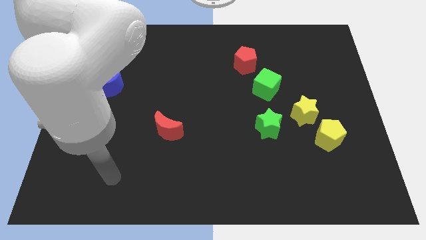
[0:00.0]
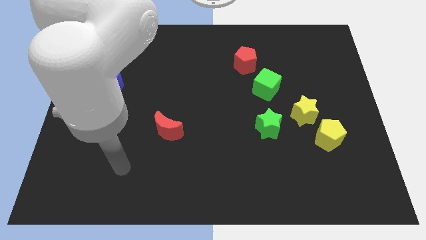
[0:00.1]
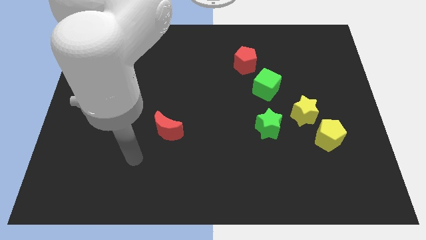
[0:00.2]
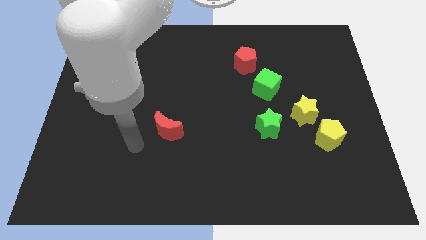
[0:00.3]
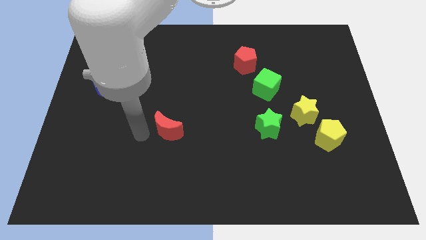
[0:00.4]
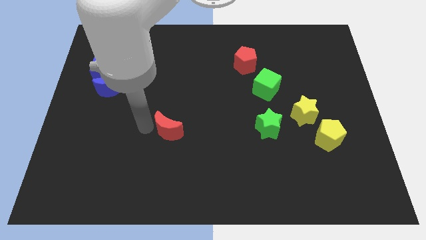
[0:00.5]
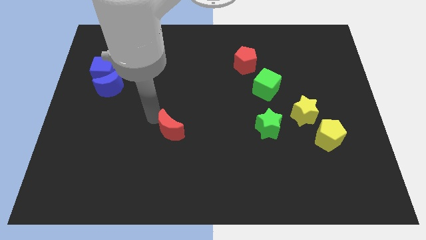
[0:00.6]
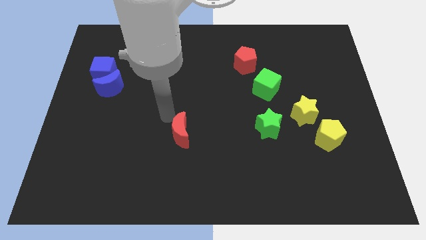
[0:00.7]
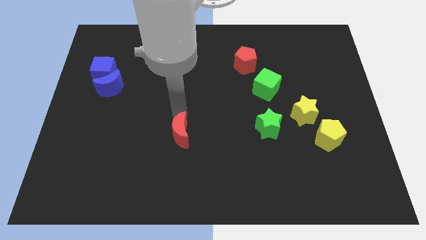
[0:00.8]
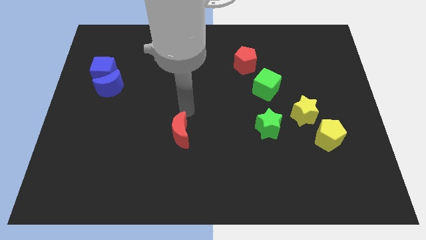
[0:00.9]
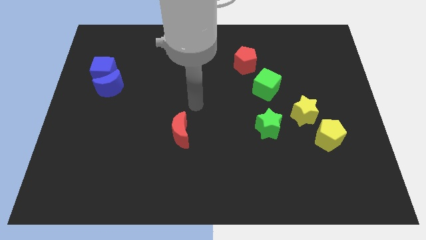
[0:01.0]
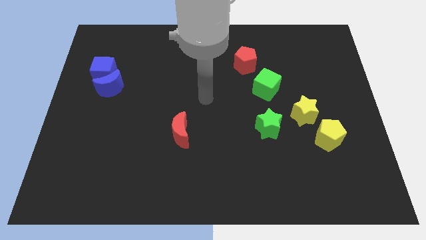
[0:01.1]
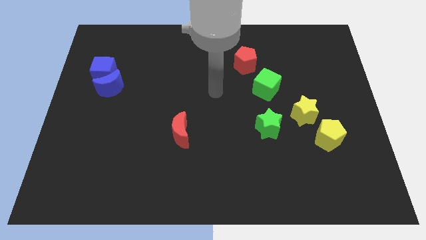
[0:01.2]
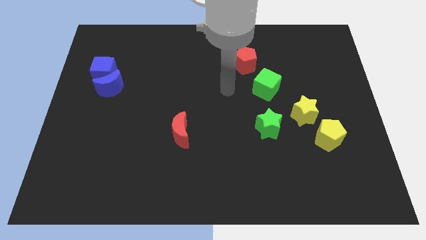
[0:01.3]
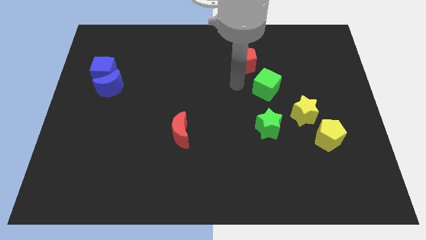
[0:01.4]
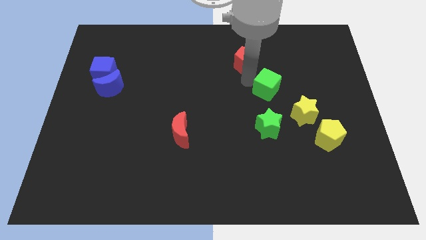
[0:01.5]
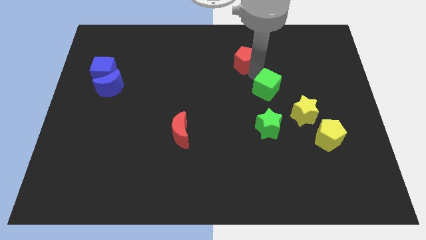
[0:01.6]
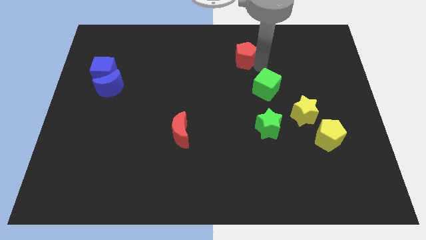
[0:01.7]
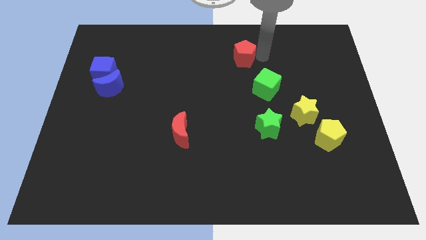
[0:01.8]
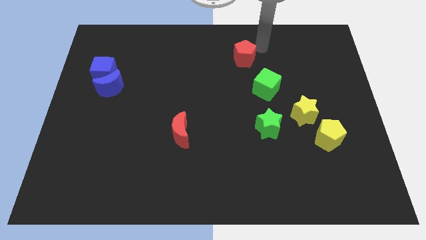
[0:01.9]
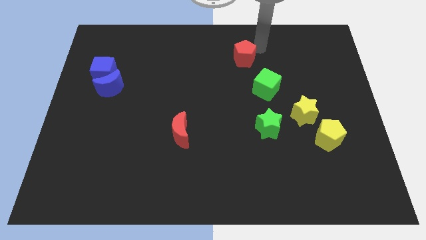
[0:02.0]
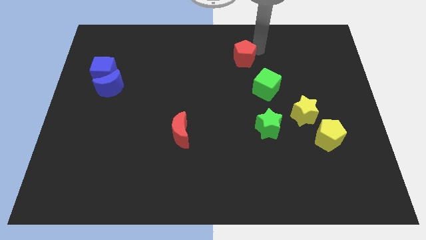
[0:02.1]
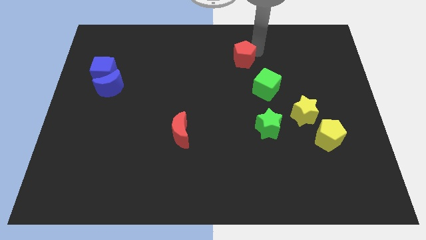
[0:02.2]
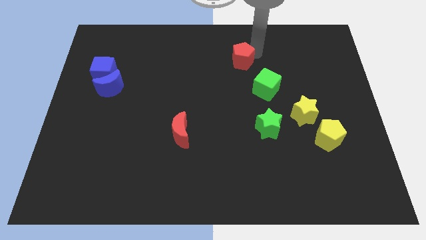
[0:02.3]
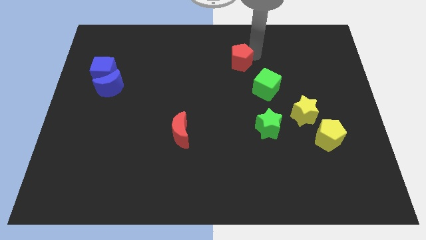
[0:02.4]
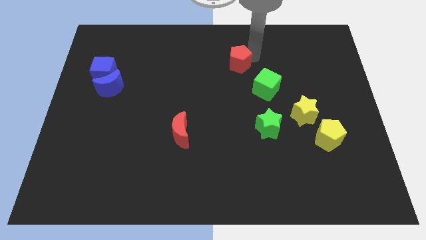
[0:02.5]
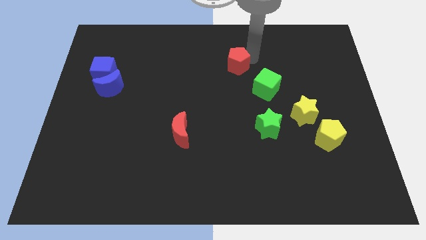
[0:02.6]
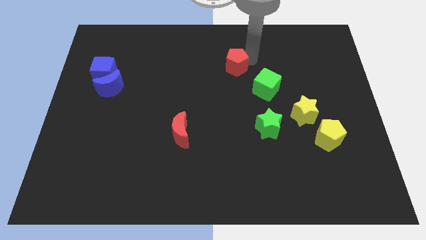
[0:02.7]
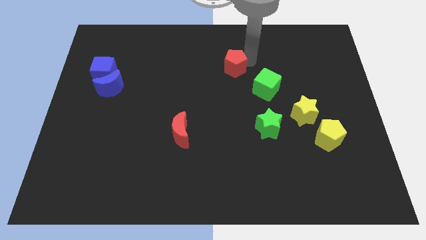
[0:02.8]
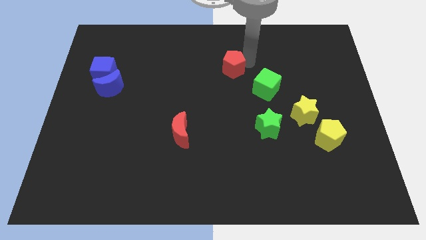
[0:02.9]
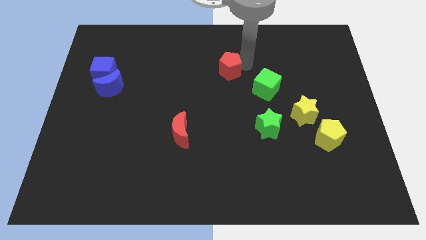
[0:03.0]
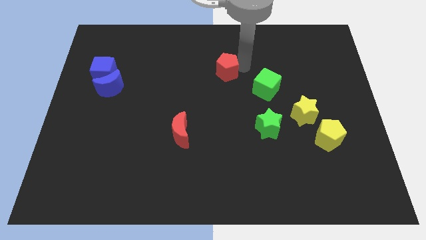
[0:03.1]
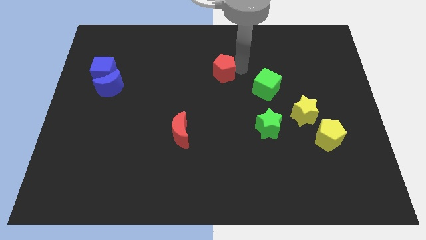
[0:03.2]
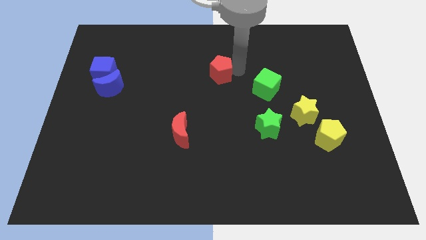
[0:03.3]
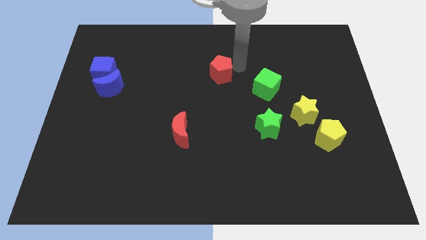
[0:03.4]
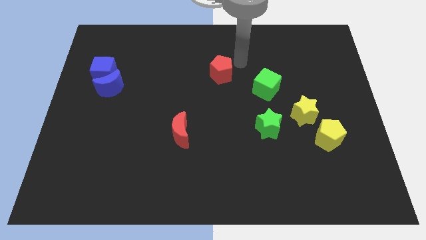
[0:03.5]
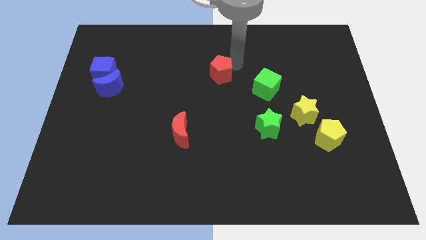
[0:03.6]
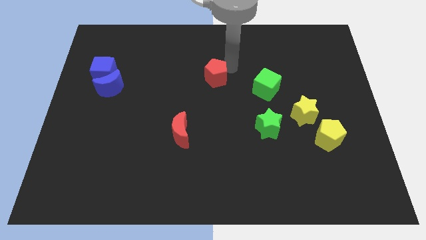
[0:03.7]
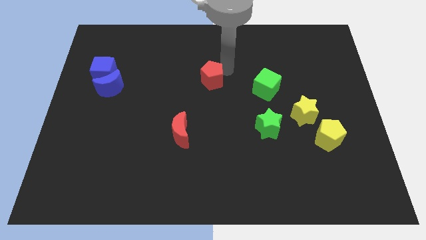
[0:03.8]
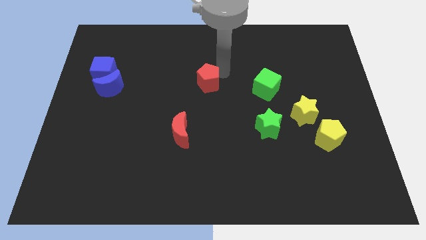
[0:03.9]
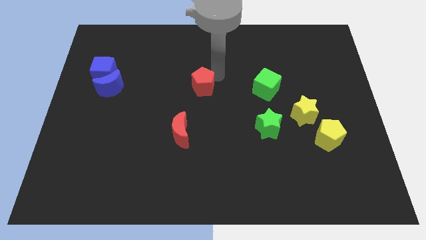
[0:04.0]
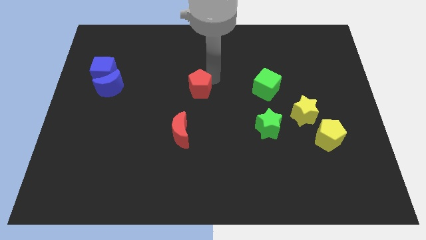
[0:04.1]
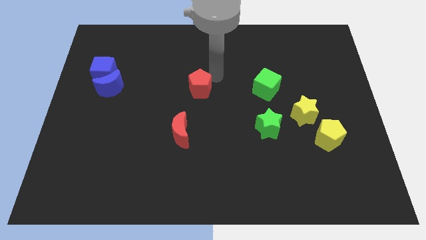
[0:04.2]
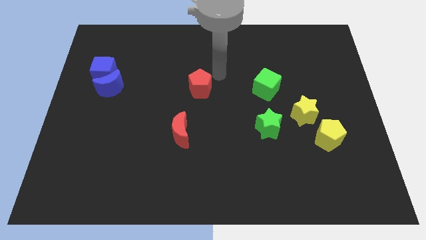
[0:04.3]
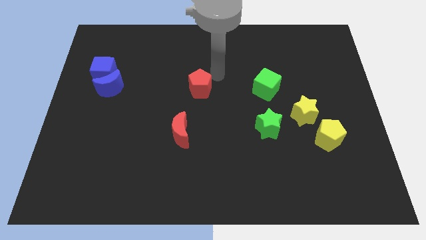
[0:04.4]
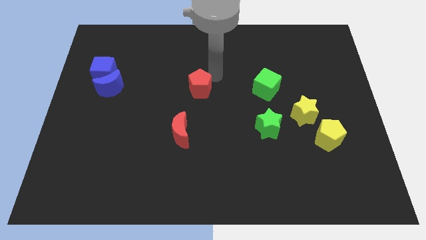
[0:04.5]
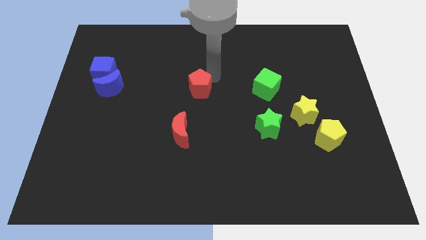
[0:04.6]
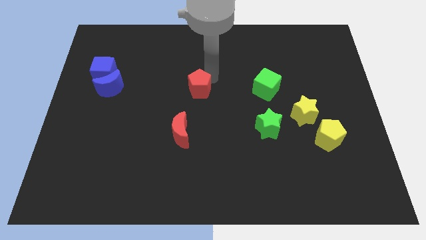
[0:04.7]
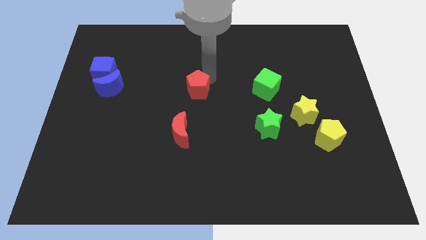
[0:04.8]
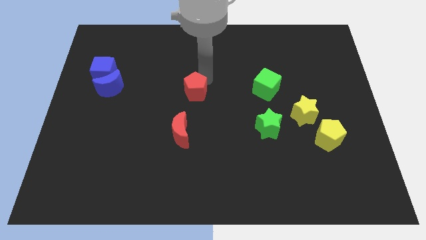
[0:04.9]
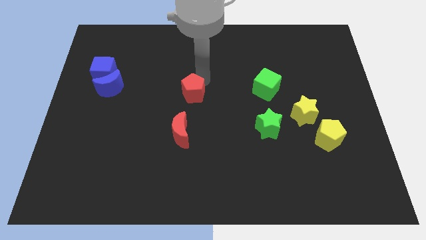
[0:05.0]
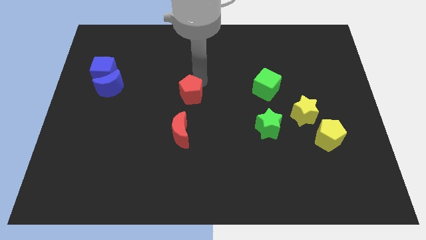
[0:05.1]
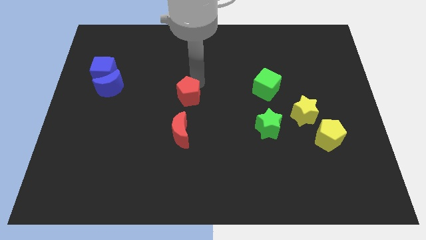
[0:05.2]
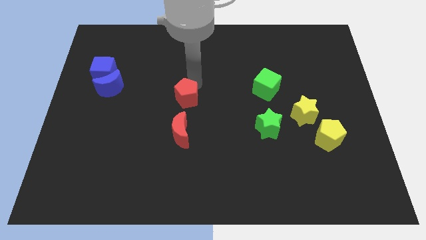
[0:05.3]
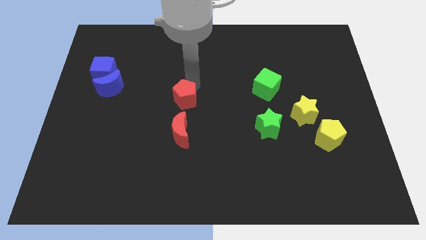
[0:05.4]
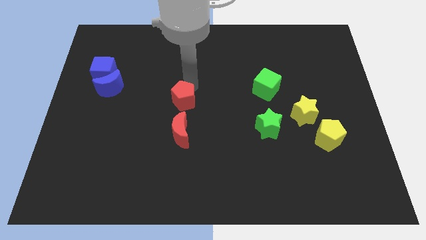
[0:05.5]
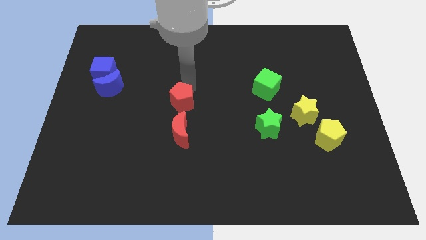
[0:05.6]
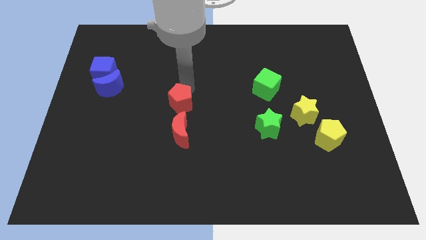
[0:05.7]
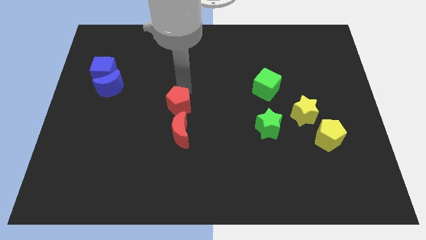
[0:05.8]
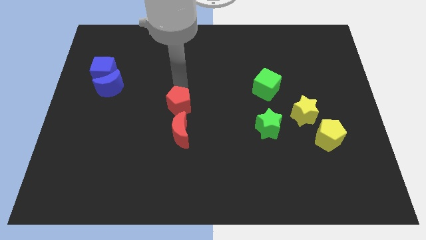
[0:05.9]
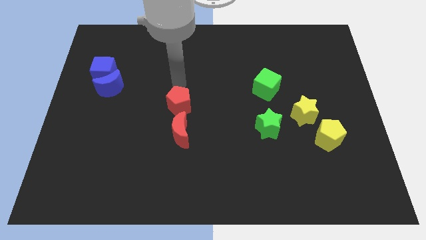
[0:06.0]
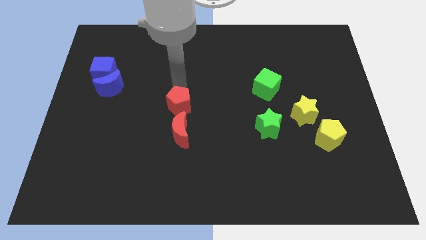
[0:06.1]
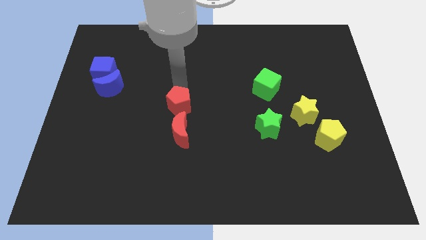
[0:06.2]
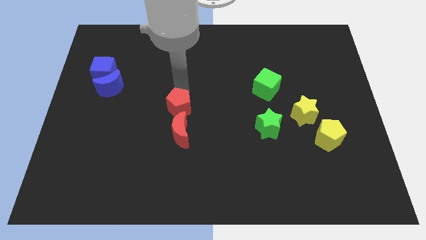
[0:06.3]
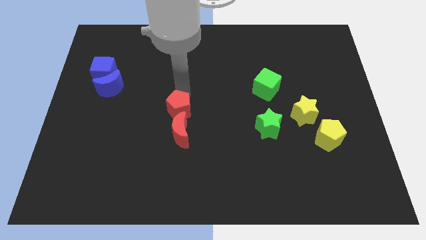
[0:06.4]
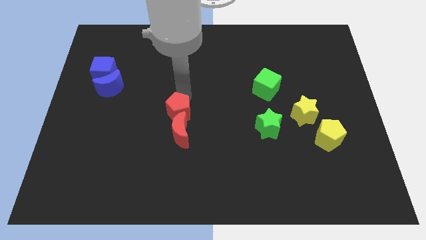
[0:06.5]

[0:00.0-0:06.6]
move the red pentagon close to the red moon

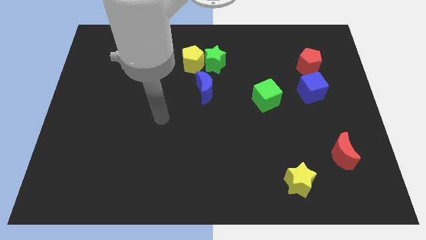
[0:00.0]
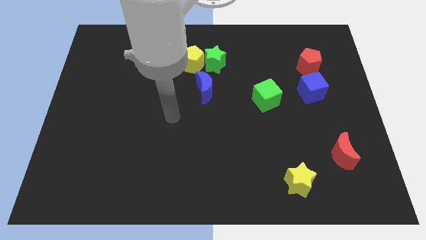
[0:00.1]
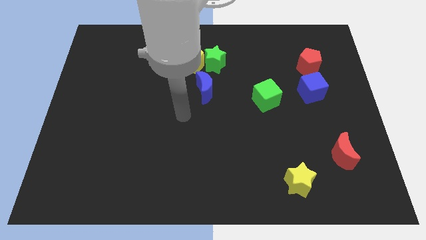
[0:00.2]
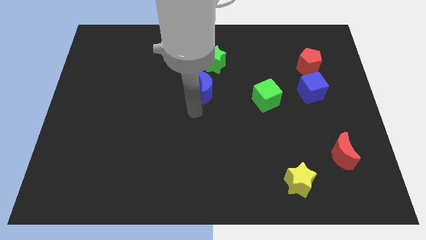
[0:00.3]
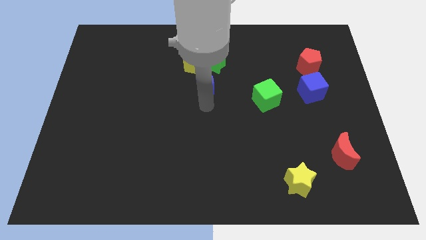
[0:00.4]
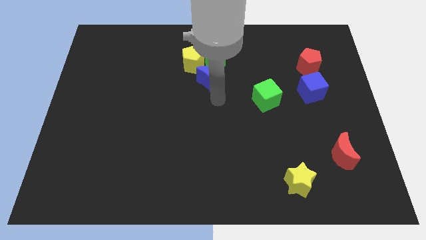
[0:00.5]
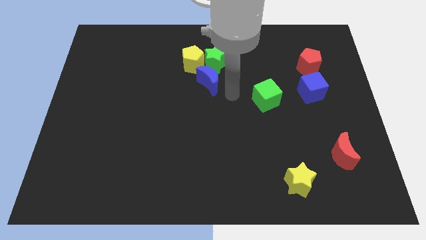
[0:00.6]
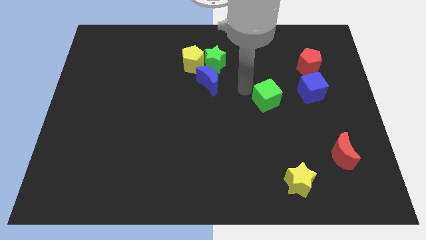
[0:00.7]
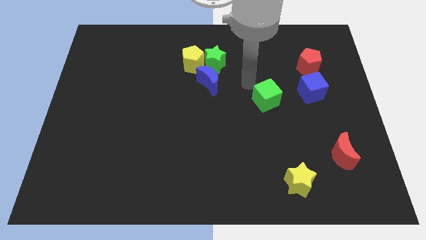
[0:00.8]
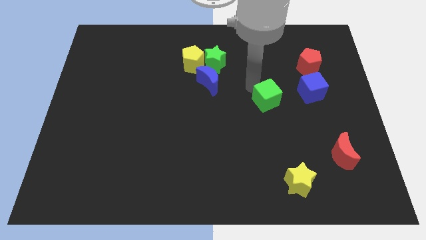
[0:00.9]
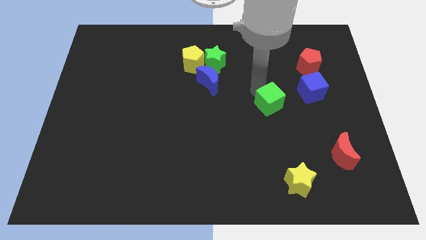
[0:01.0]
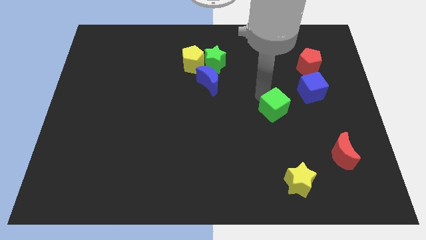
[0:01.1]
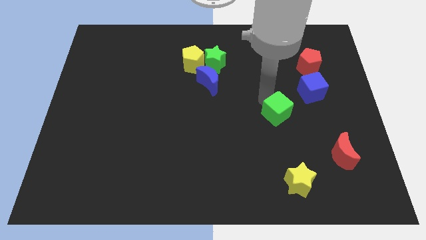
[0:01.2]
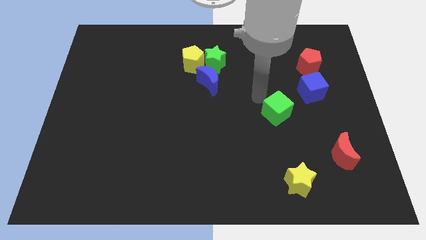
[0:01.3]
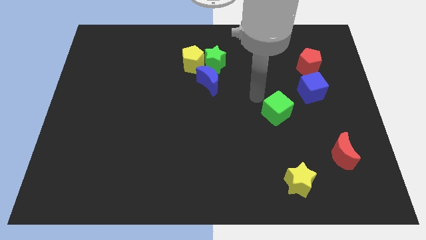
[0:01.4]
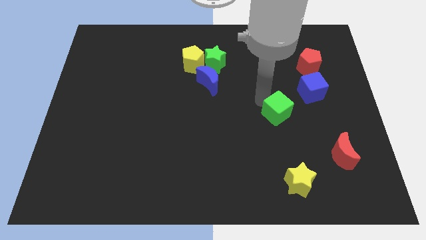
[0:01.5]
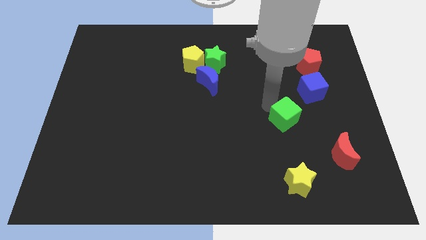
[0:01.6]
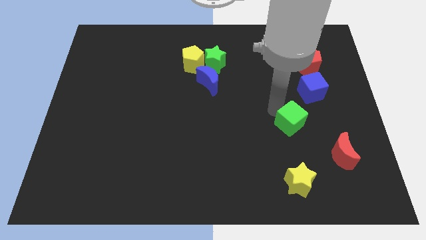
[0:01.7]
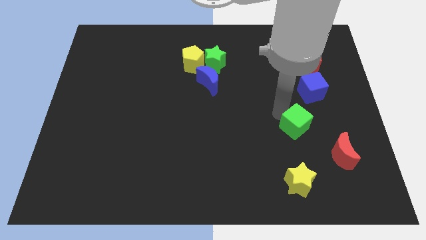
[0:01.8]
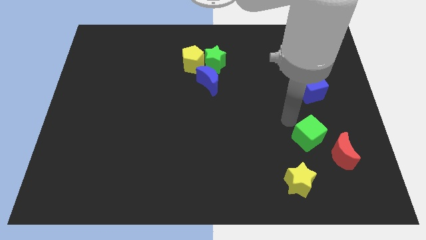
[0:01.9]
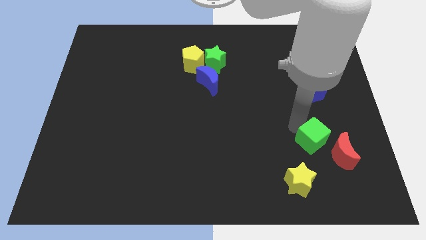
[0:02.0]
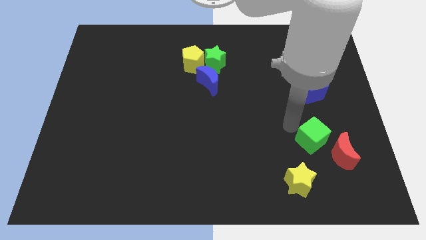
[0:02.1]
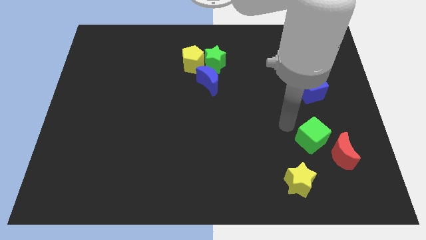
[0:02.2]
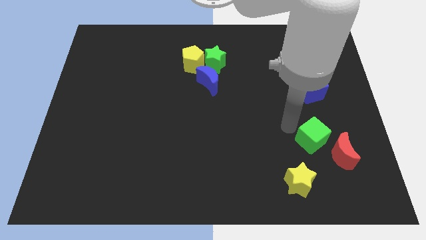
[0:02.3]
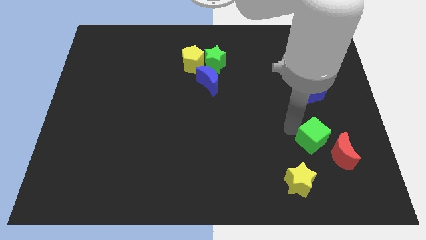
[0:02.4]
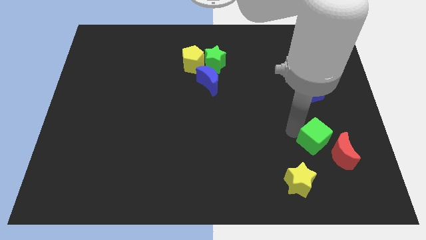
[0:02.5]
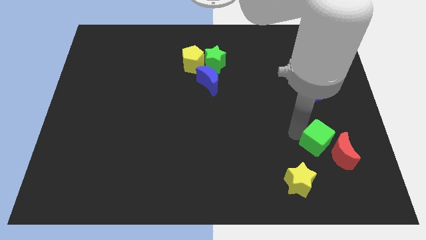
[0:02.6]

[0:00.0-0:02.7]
push the green cube close to the red moon
